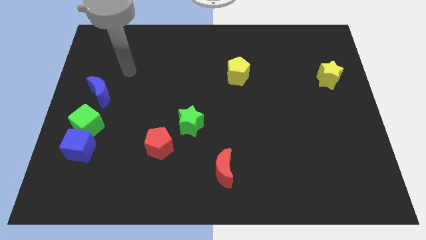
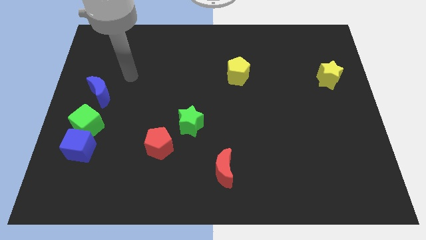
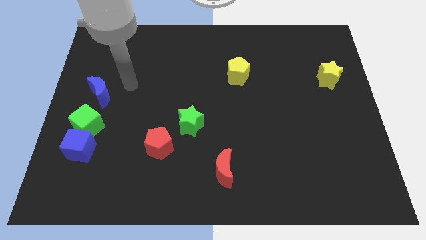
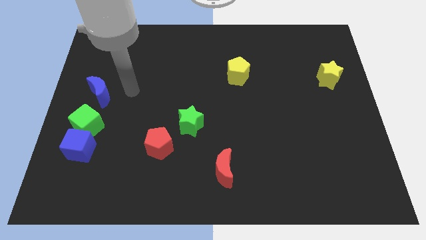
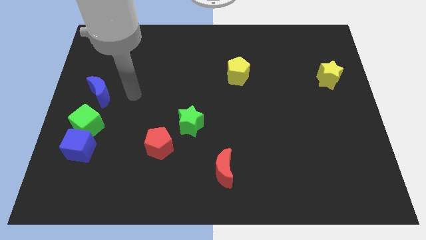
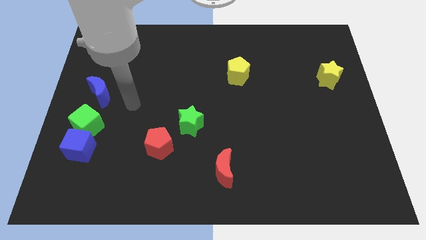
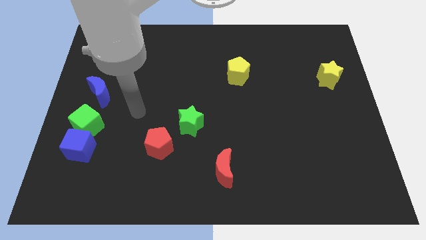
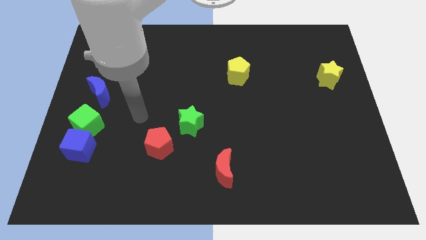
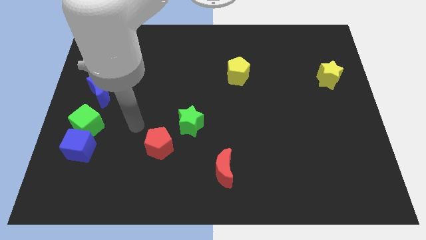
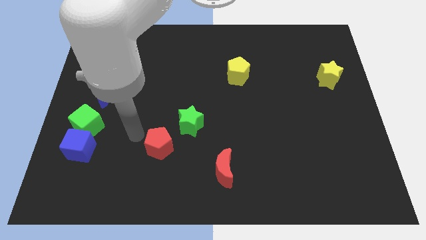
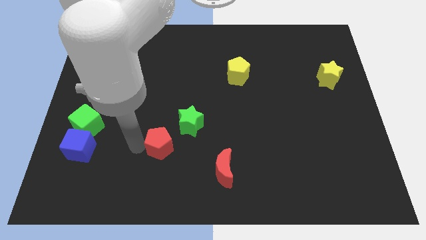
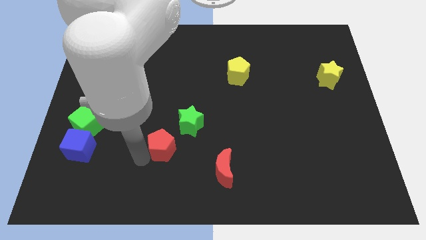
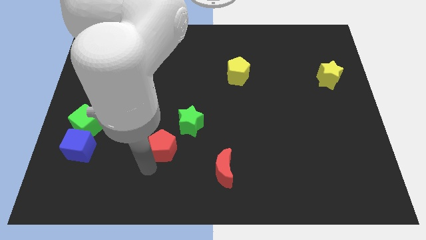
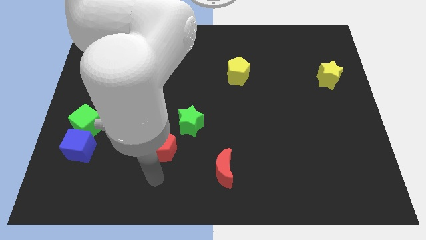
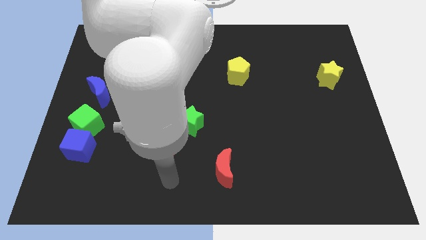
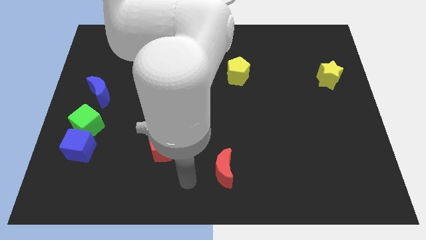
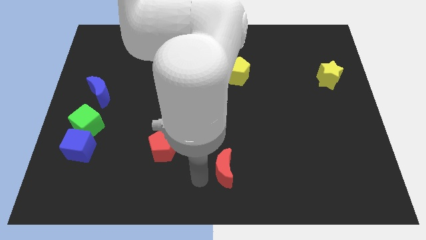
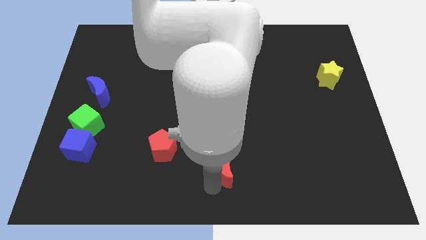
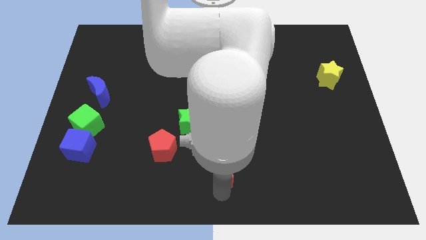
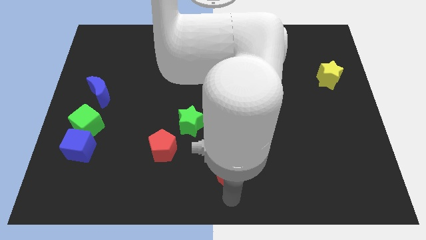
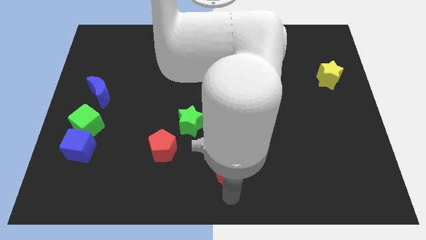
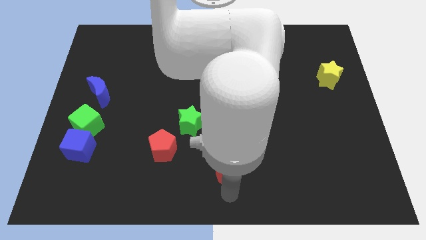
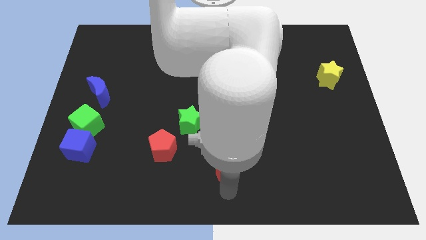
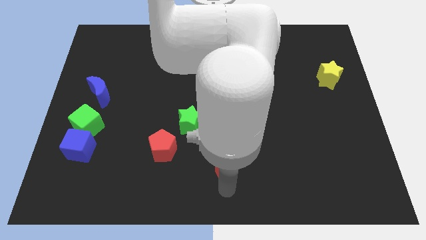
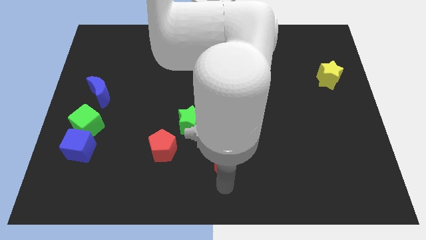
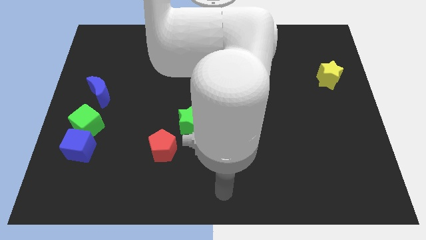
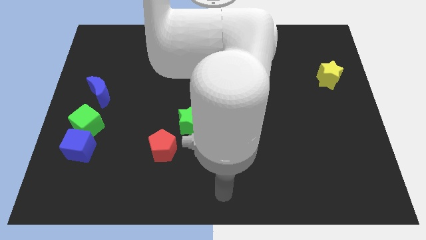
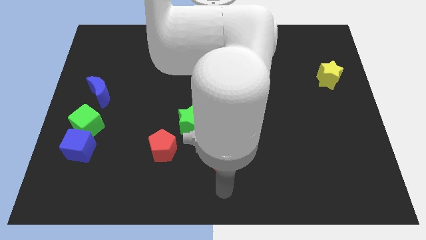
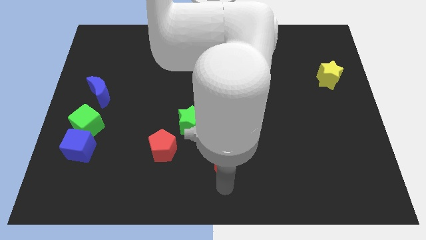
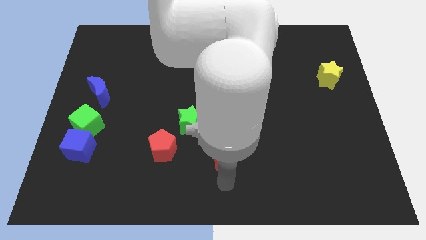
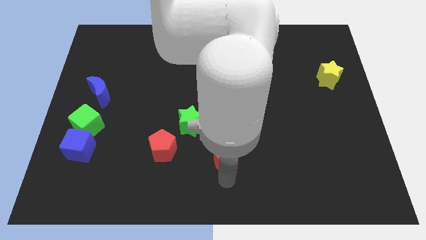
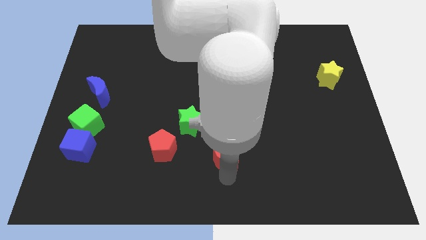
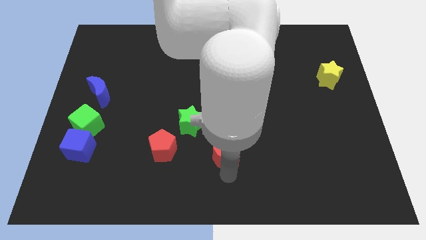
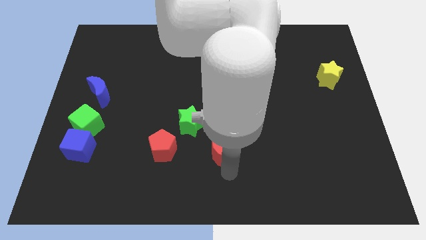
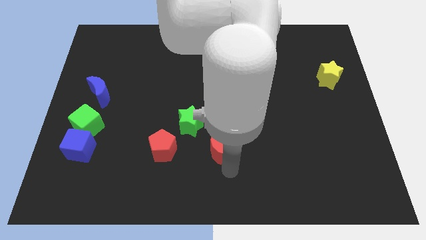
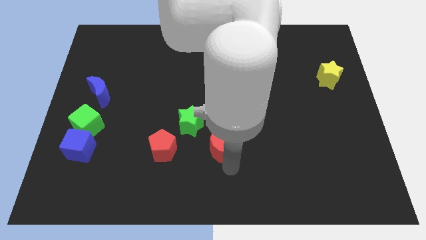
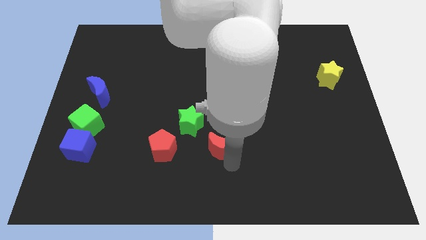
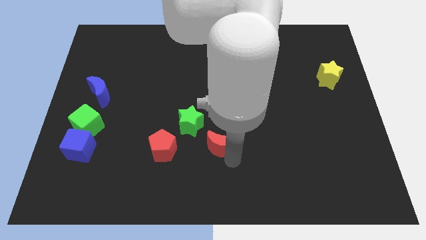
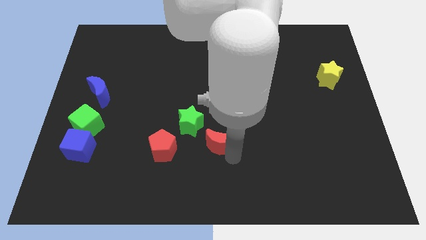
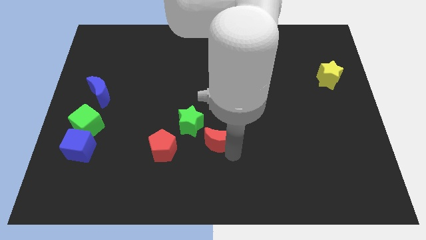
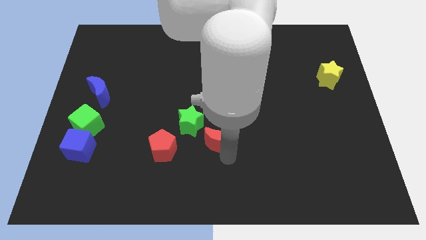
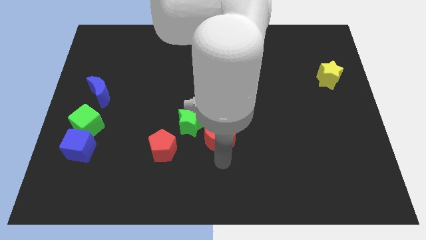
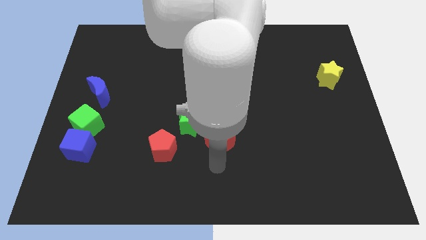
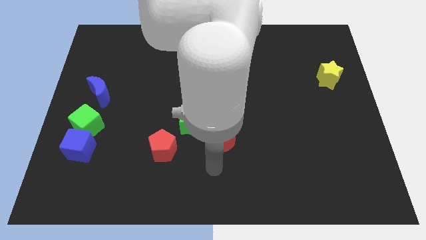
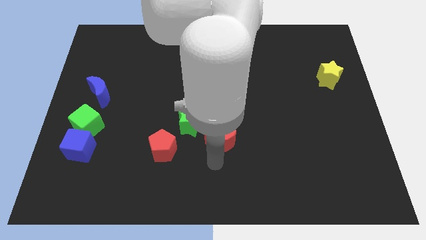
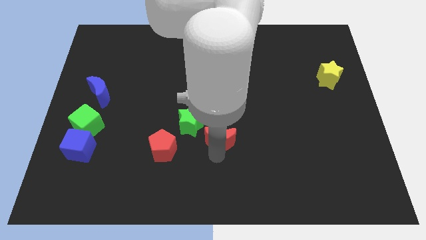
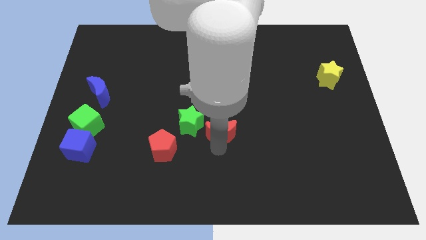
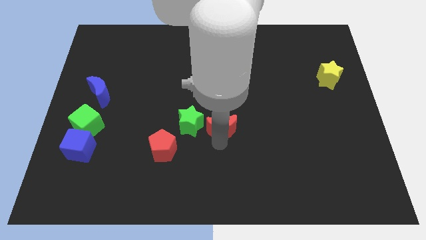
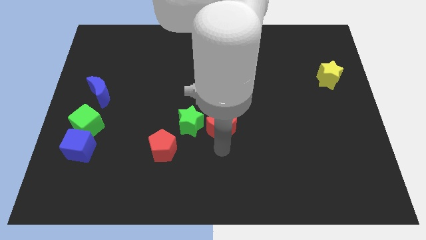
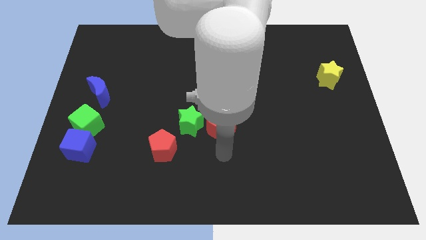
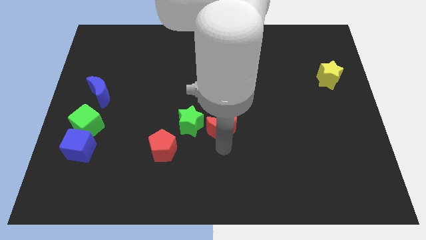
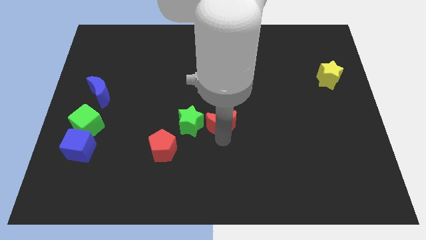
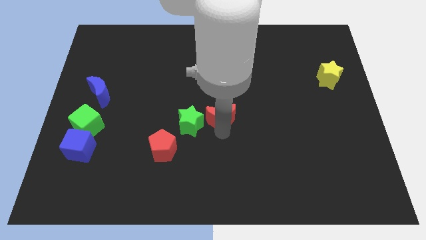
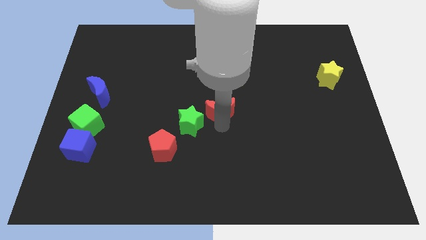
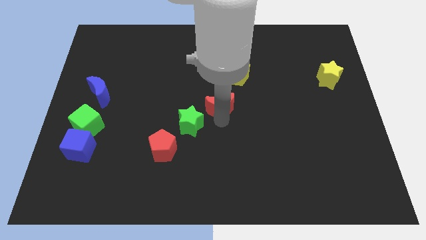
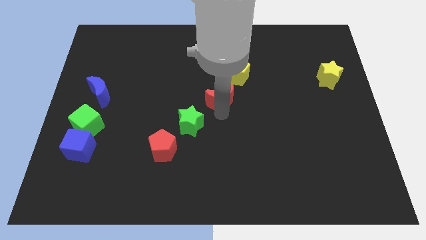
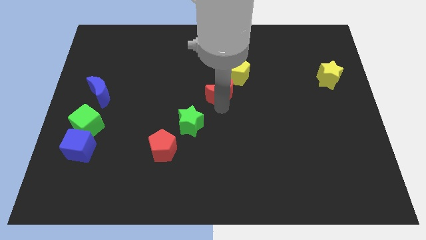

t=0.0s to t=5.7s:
move the red moon upwards

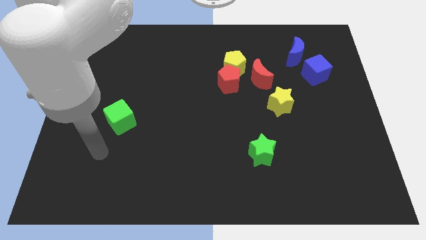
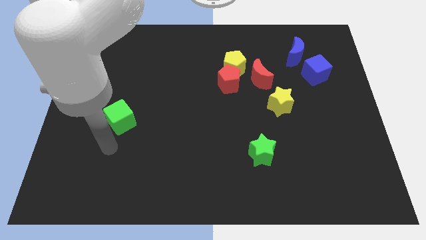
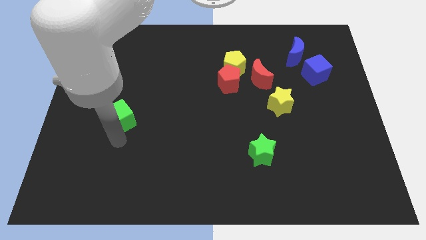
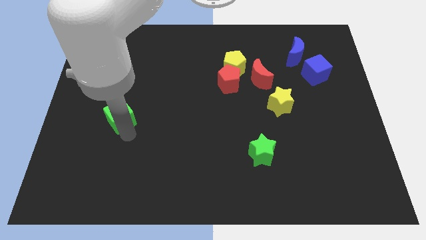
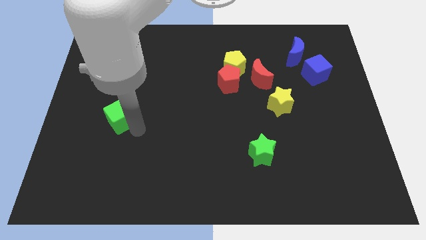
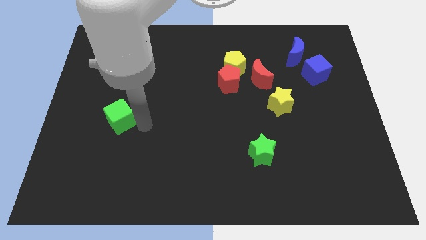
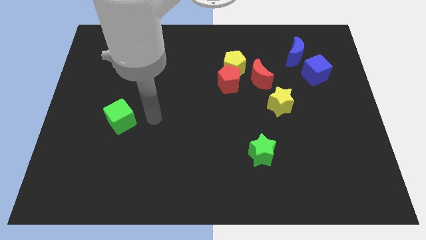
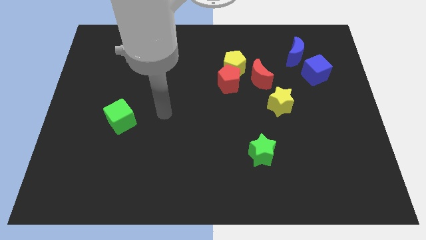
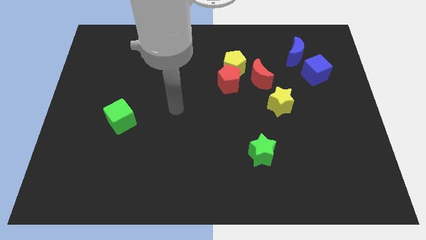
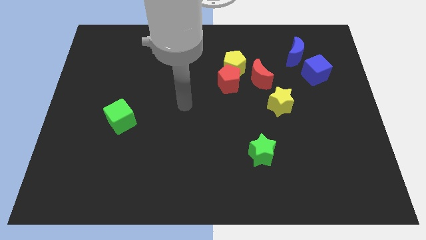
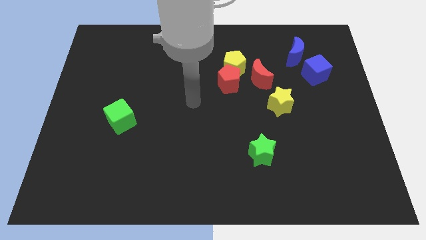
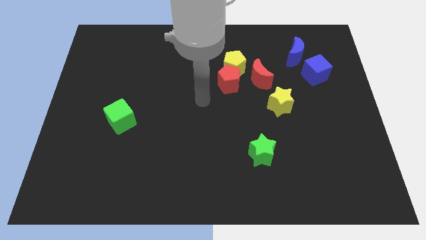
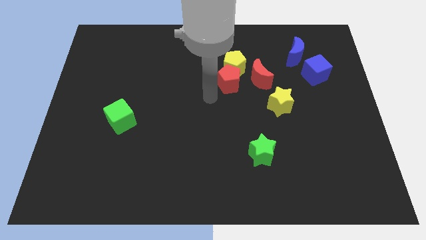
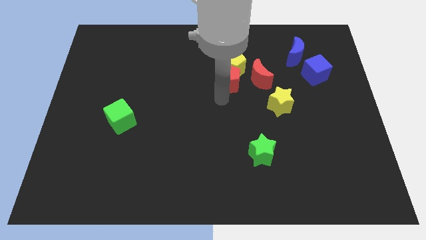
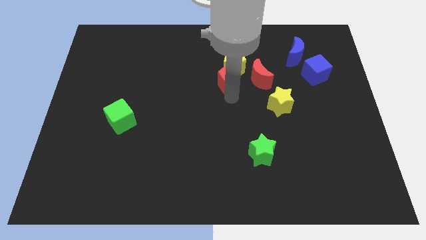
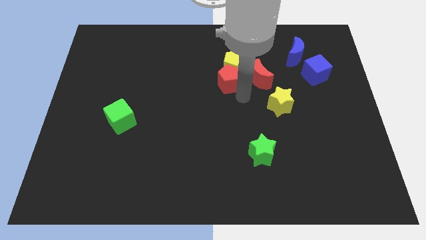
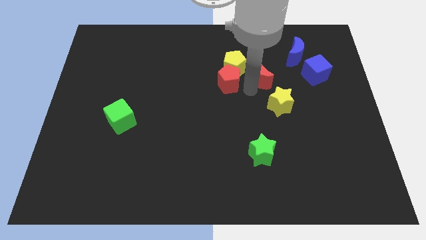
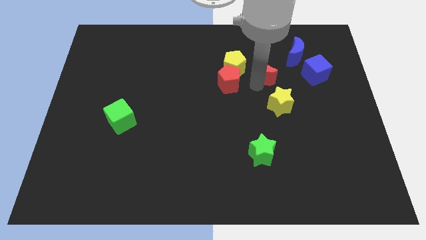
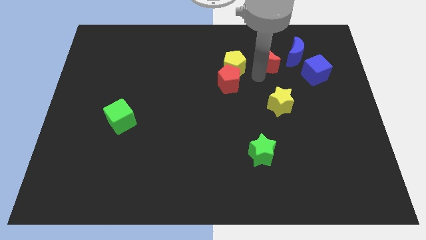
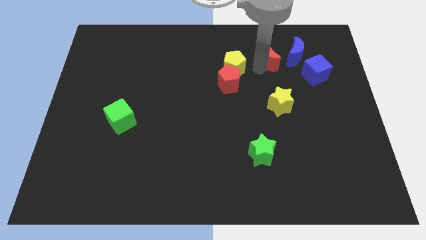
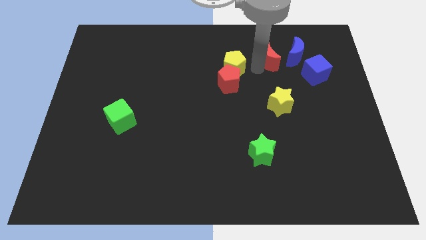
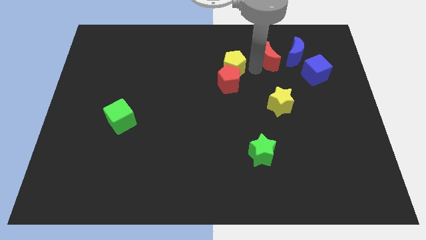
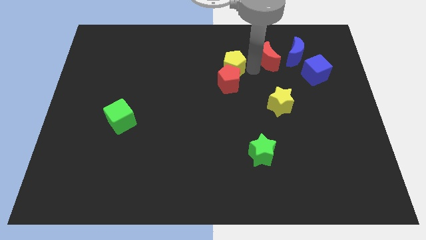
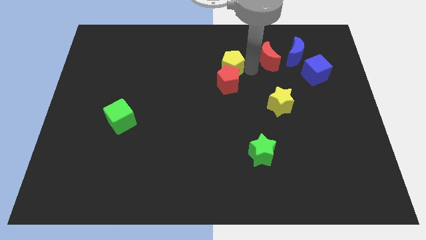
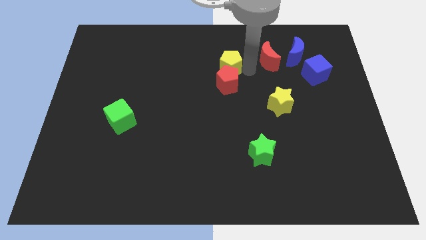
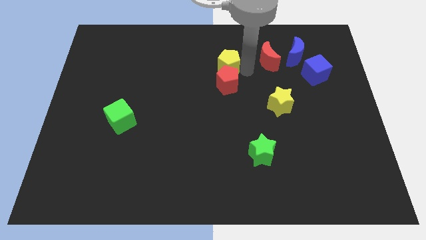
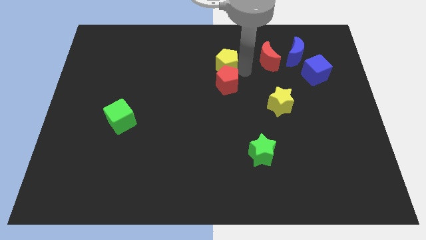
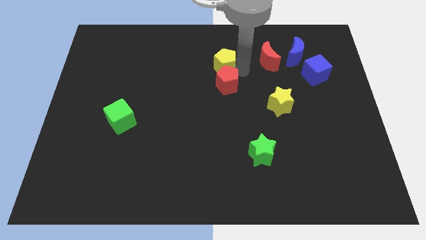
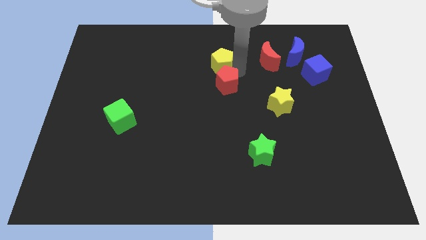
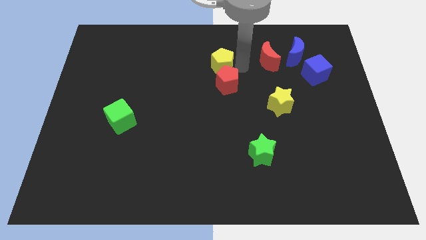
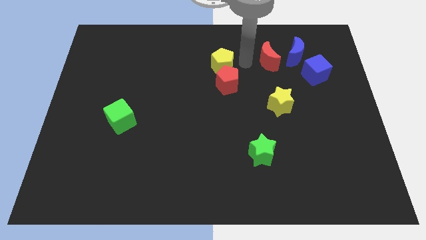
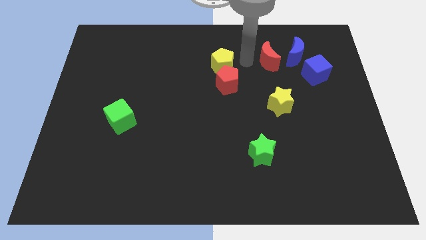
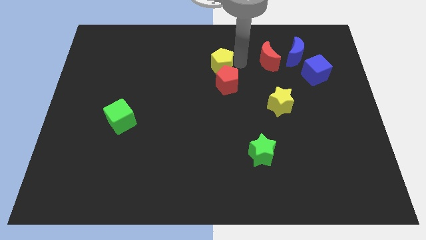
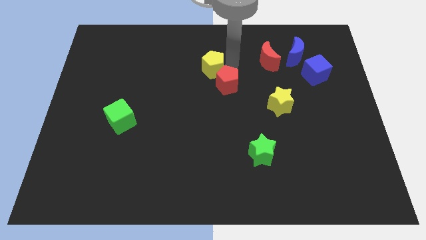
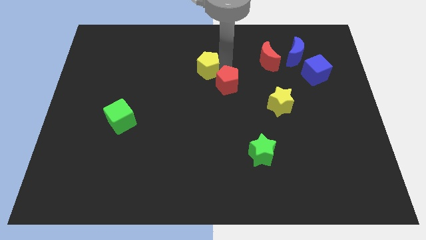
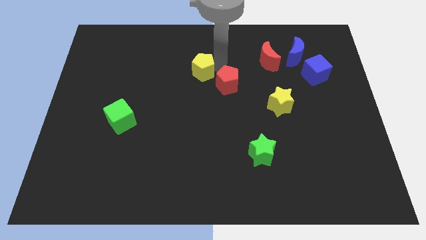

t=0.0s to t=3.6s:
slightly slide the yellow pentagon to the left
